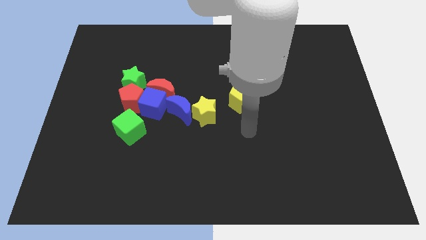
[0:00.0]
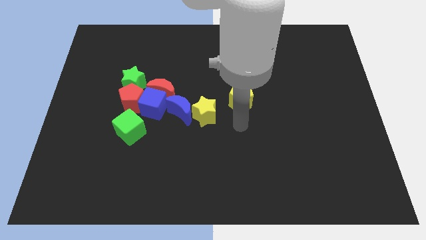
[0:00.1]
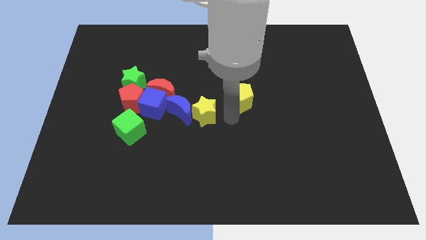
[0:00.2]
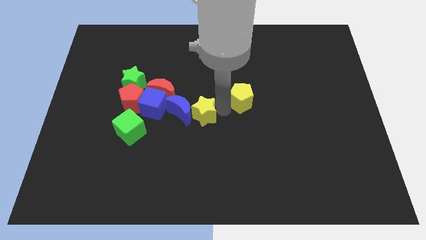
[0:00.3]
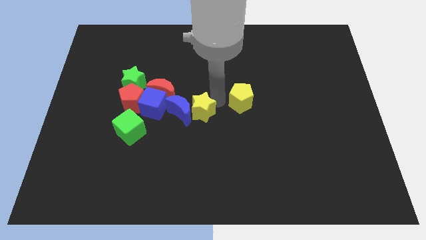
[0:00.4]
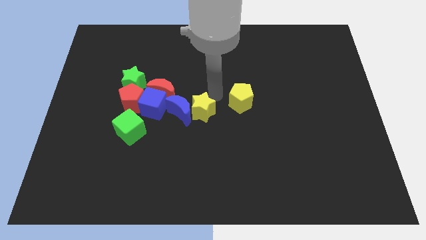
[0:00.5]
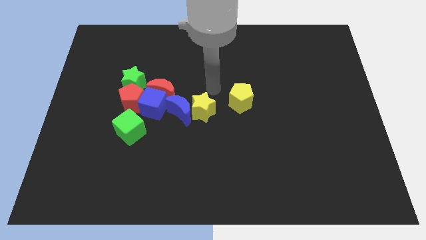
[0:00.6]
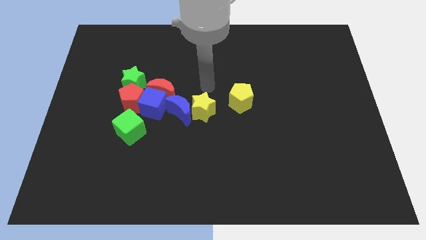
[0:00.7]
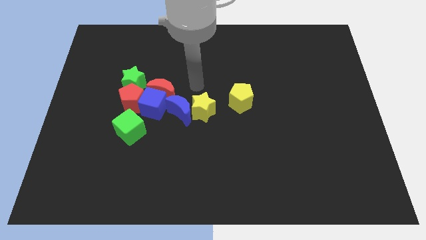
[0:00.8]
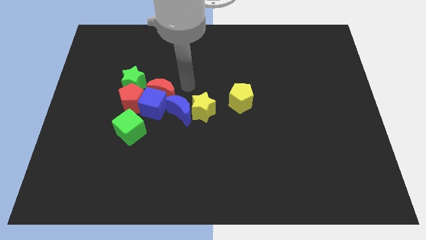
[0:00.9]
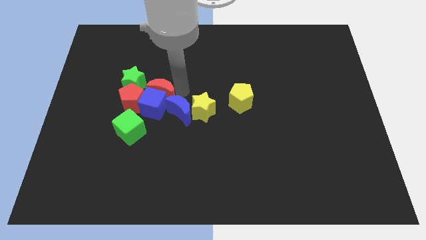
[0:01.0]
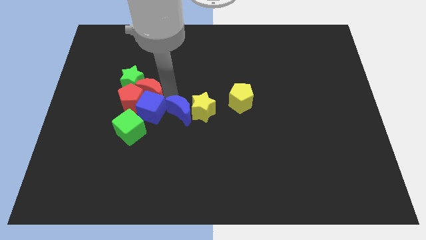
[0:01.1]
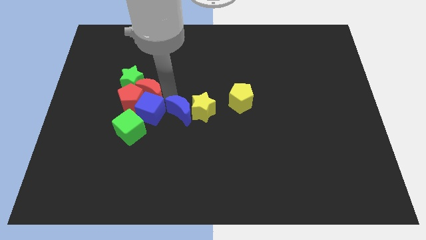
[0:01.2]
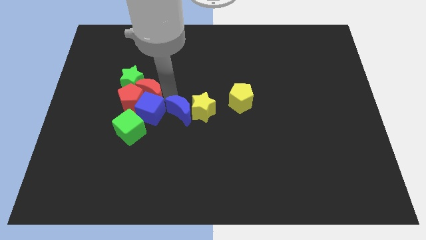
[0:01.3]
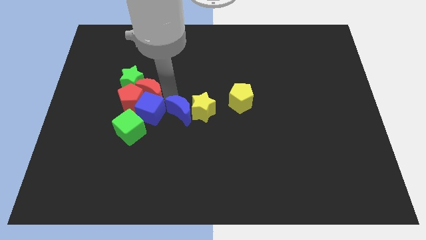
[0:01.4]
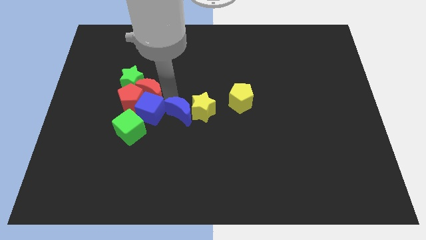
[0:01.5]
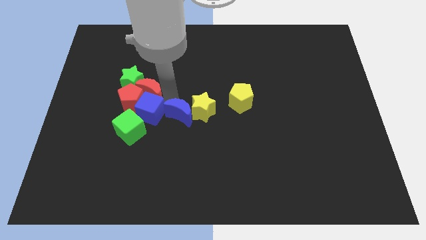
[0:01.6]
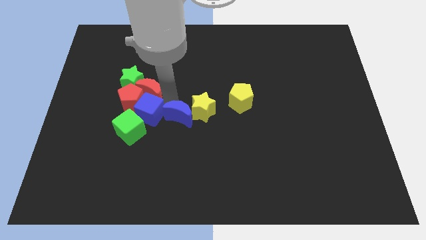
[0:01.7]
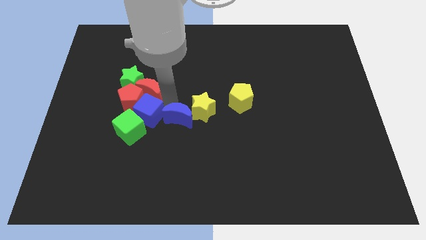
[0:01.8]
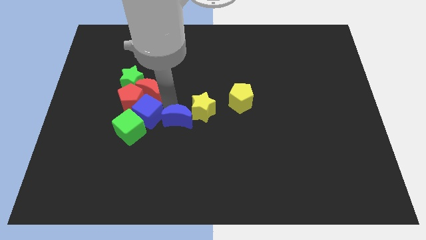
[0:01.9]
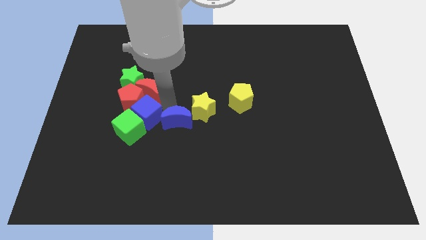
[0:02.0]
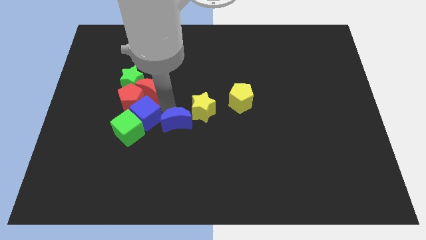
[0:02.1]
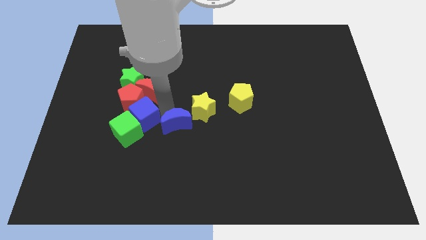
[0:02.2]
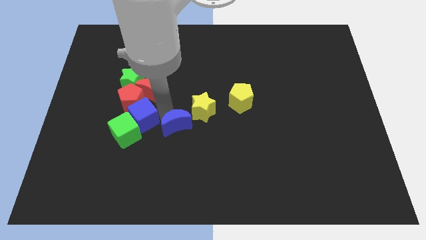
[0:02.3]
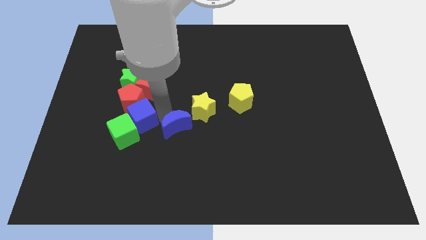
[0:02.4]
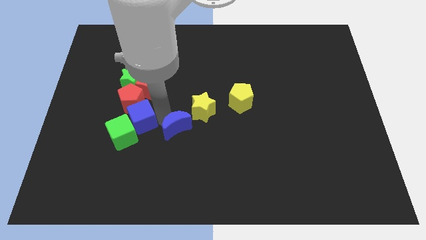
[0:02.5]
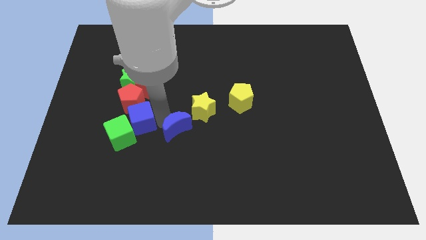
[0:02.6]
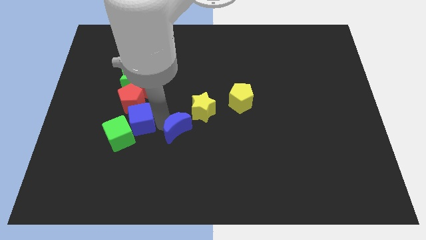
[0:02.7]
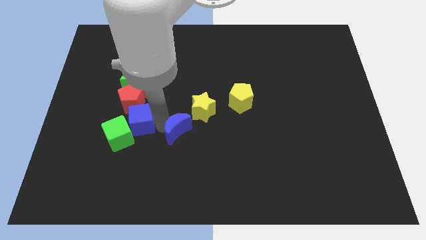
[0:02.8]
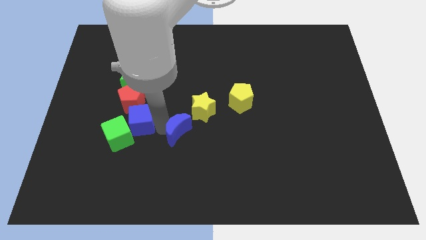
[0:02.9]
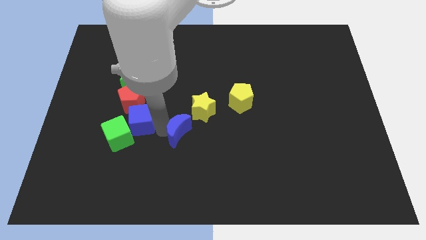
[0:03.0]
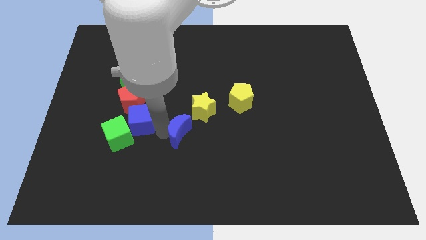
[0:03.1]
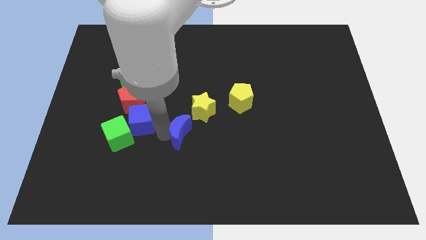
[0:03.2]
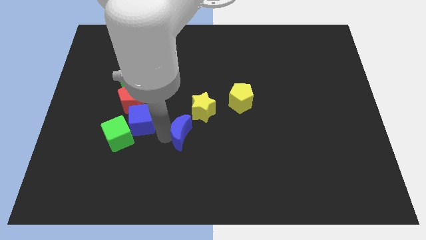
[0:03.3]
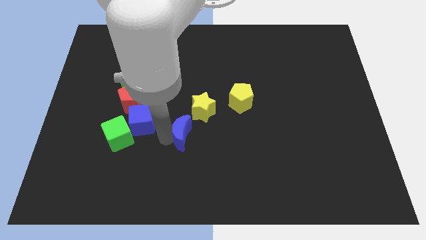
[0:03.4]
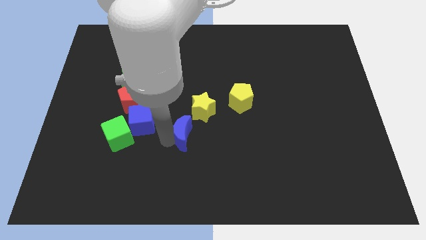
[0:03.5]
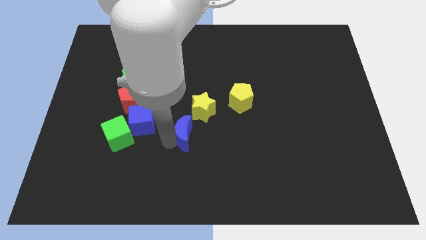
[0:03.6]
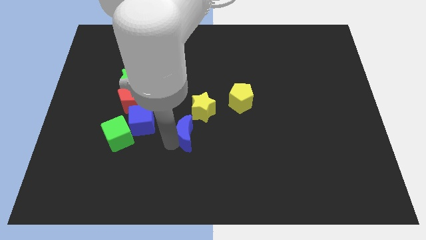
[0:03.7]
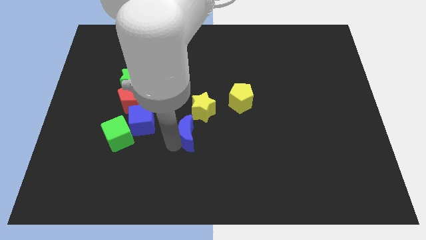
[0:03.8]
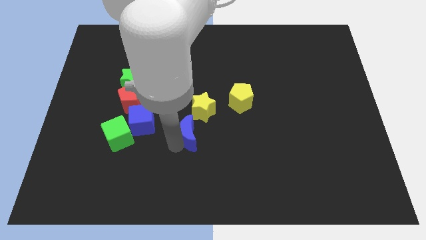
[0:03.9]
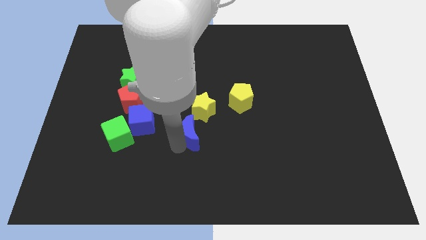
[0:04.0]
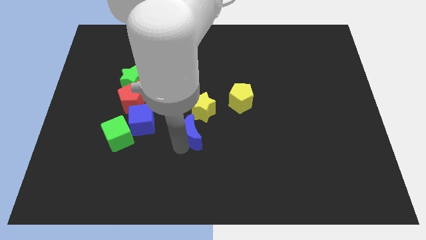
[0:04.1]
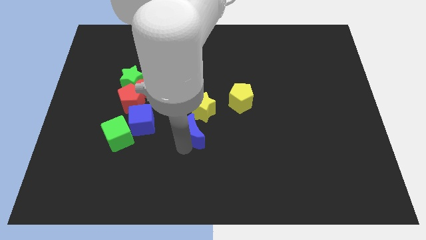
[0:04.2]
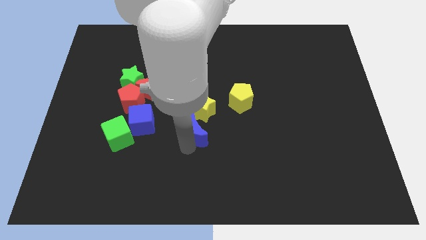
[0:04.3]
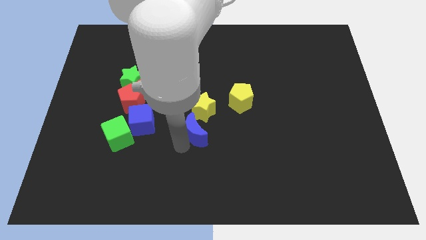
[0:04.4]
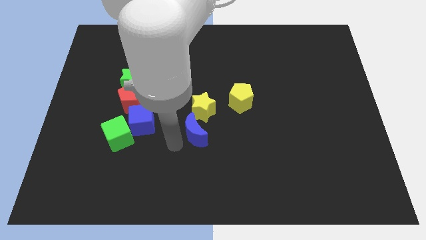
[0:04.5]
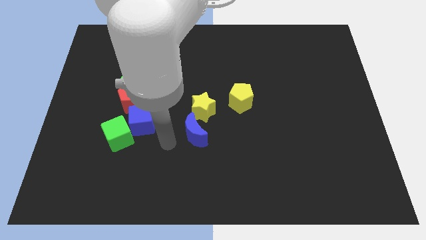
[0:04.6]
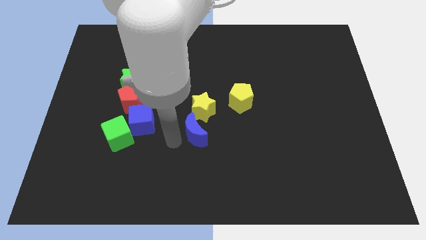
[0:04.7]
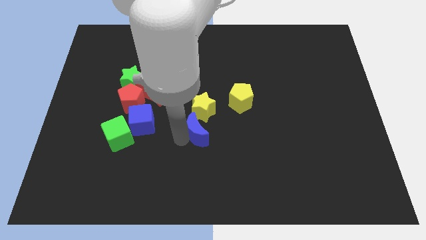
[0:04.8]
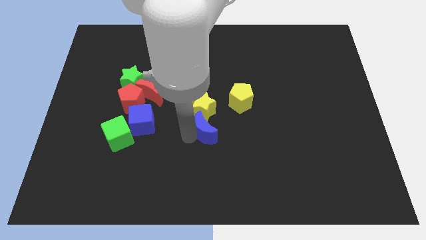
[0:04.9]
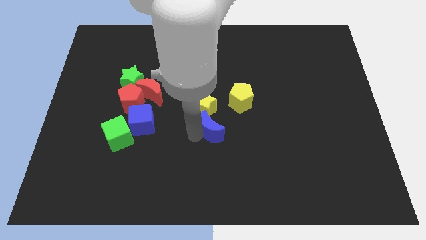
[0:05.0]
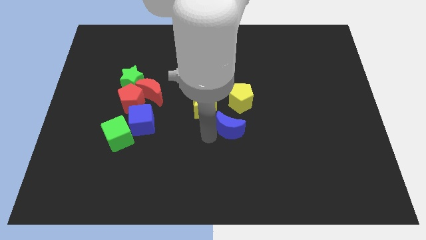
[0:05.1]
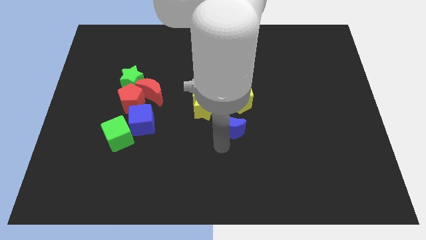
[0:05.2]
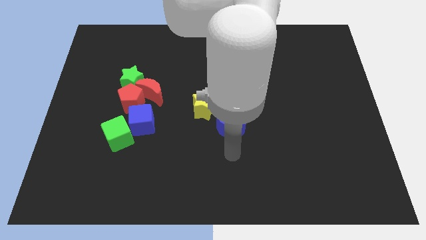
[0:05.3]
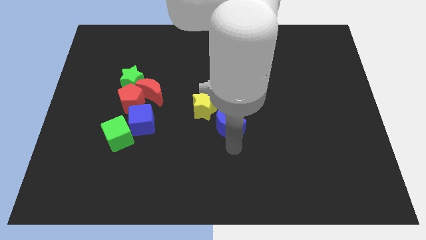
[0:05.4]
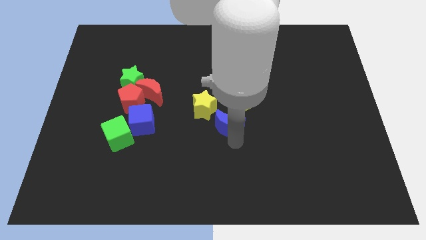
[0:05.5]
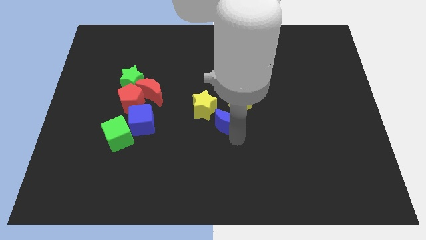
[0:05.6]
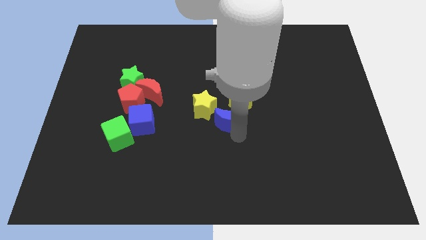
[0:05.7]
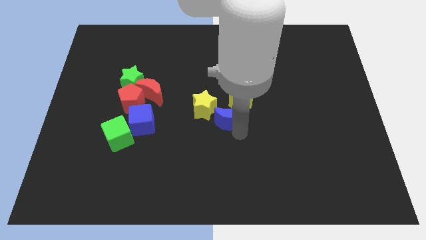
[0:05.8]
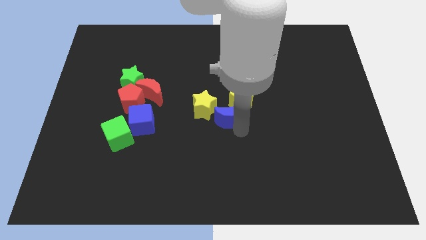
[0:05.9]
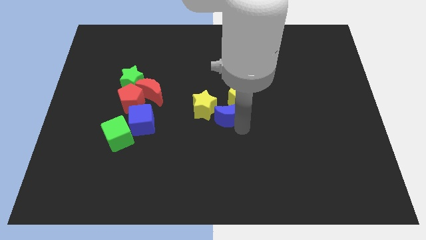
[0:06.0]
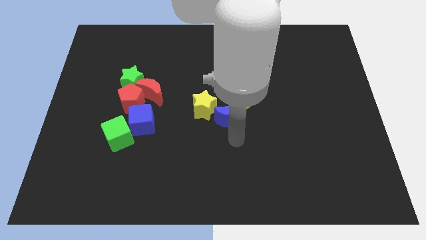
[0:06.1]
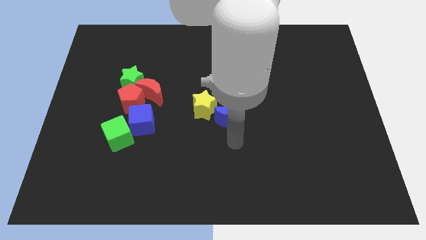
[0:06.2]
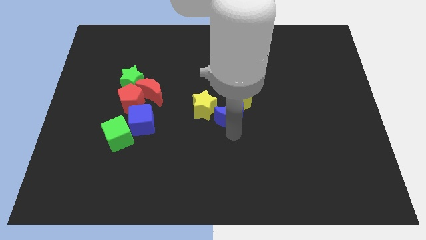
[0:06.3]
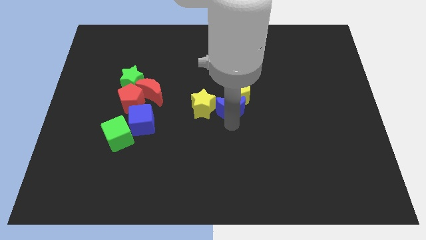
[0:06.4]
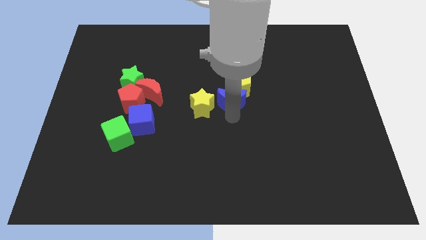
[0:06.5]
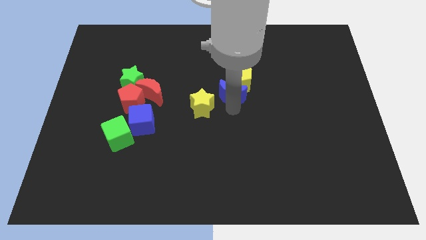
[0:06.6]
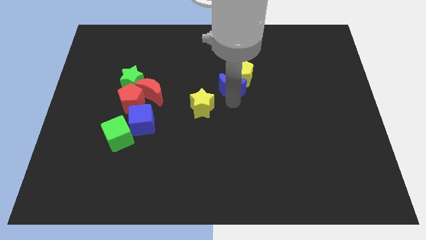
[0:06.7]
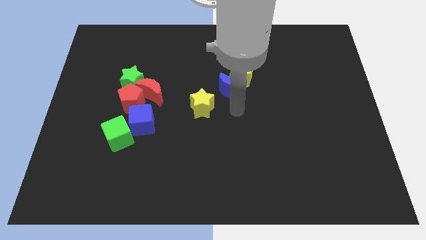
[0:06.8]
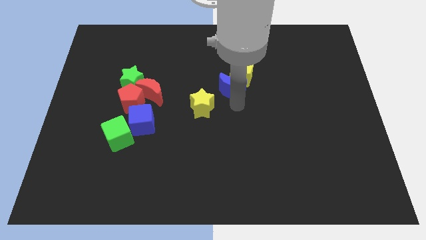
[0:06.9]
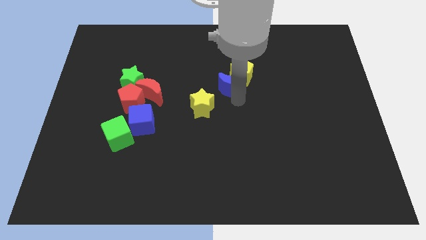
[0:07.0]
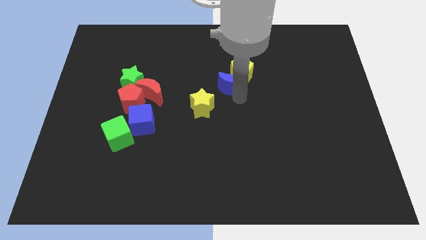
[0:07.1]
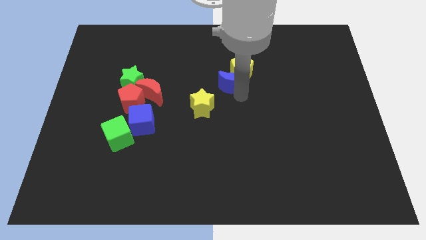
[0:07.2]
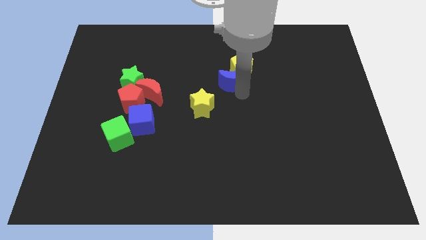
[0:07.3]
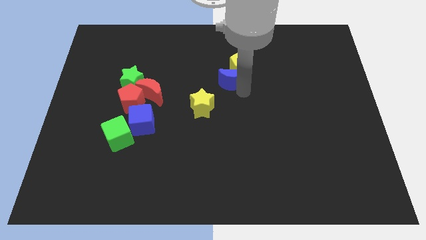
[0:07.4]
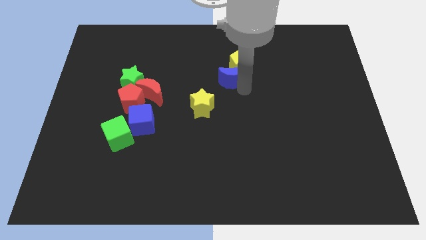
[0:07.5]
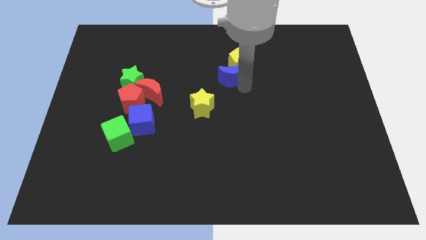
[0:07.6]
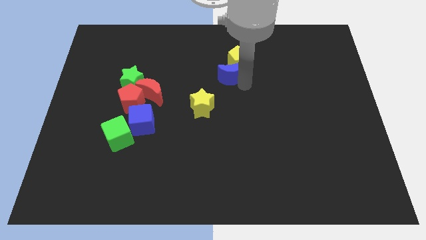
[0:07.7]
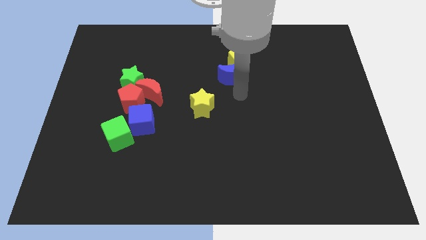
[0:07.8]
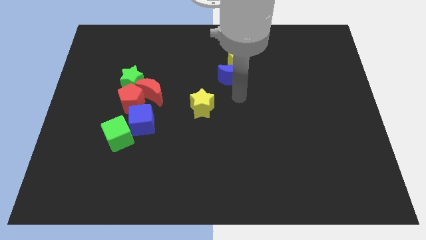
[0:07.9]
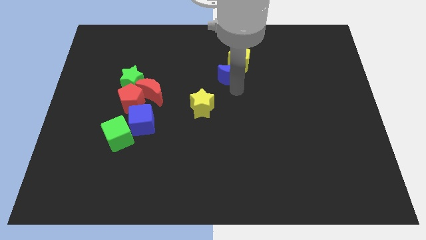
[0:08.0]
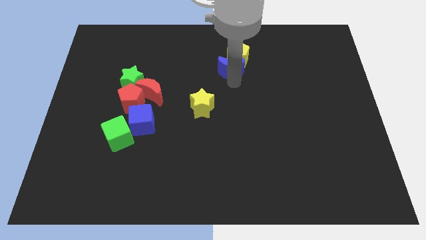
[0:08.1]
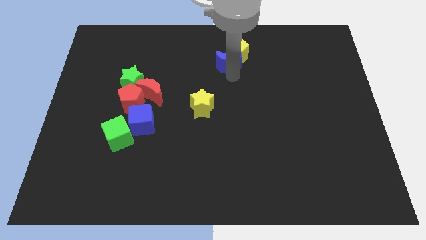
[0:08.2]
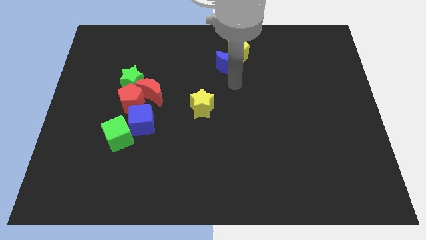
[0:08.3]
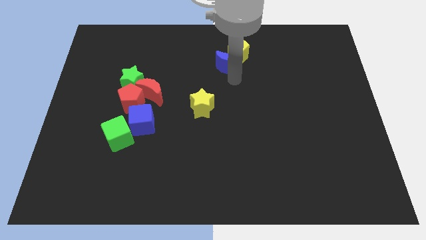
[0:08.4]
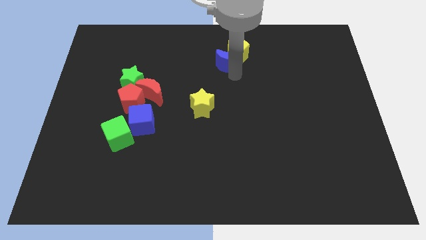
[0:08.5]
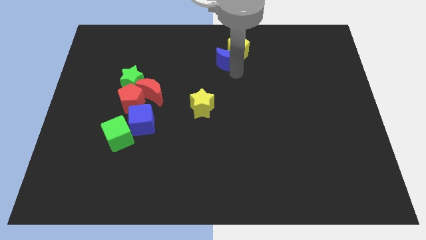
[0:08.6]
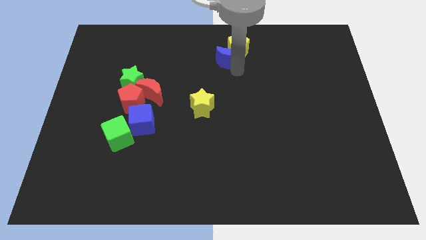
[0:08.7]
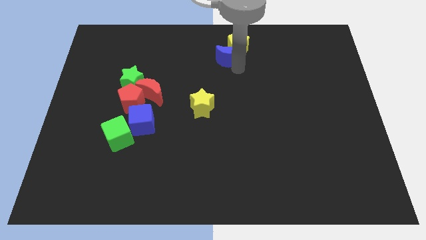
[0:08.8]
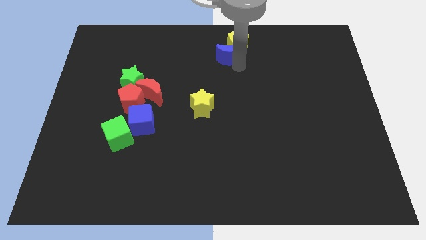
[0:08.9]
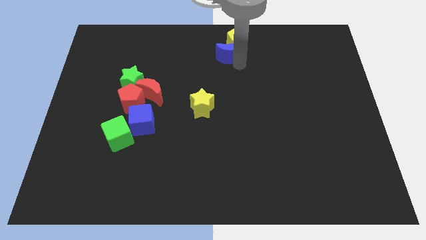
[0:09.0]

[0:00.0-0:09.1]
put the blue moon to the top side
